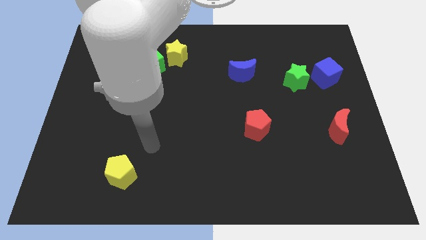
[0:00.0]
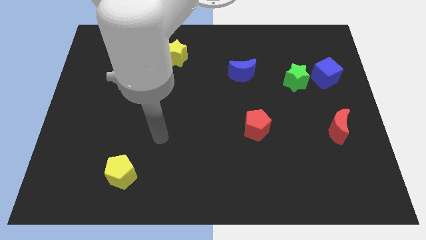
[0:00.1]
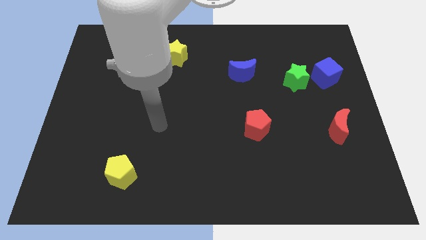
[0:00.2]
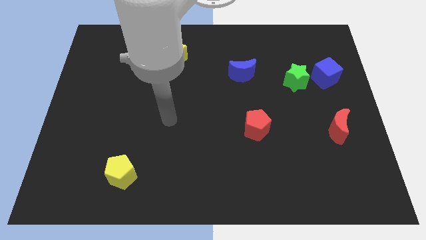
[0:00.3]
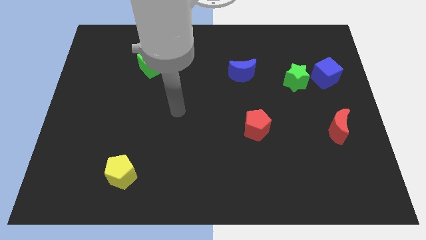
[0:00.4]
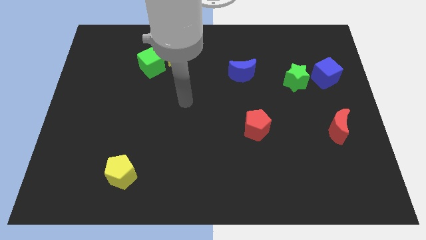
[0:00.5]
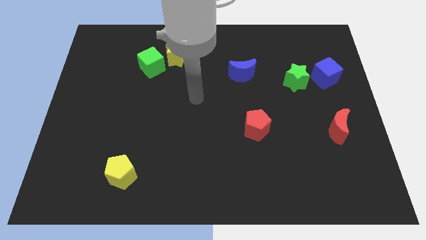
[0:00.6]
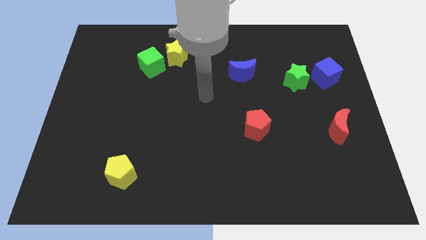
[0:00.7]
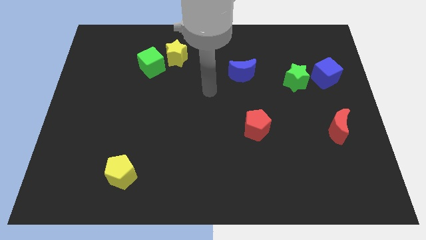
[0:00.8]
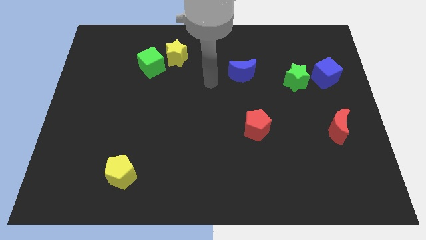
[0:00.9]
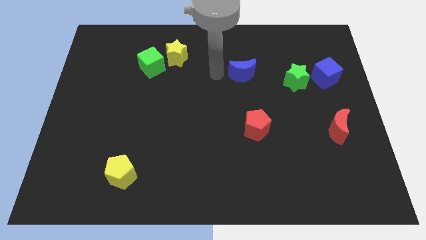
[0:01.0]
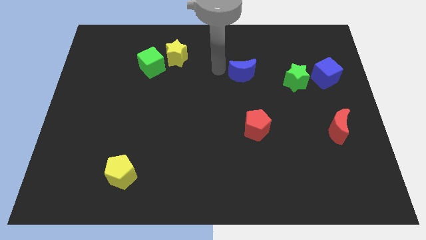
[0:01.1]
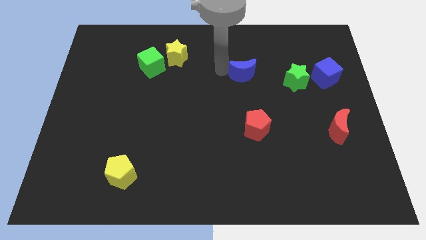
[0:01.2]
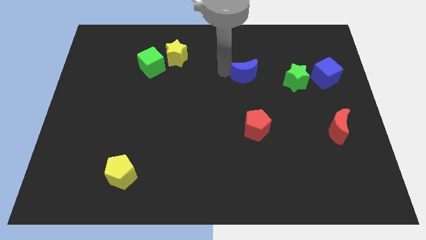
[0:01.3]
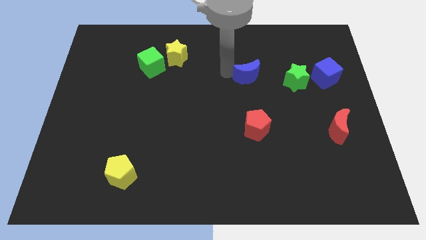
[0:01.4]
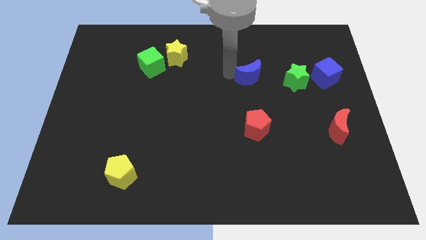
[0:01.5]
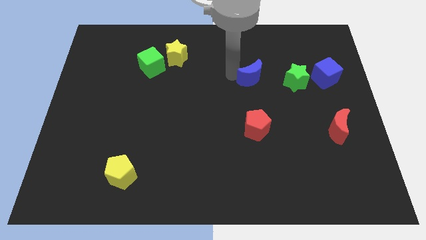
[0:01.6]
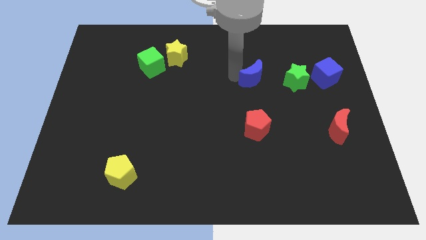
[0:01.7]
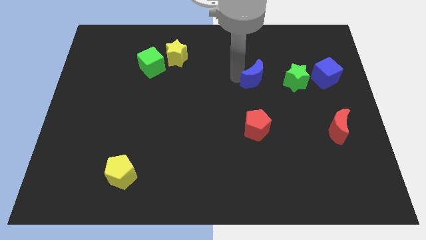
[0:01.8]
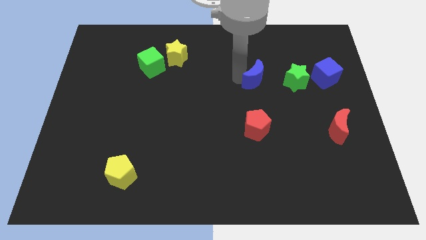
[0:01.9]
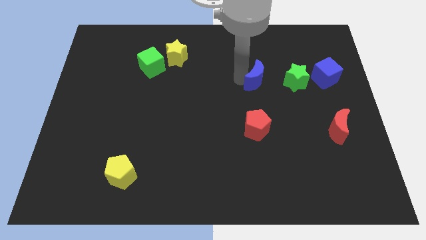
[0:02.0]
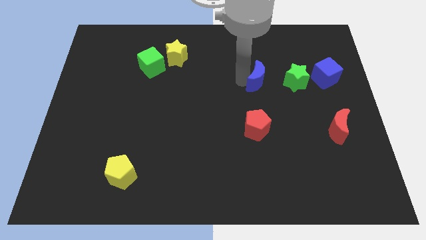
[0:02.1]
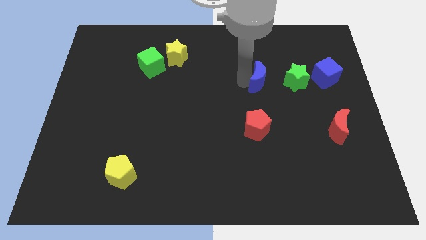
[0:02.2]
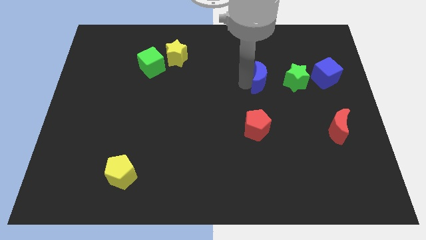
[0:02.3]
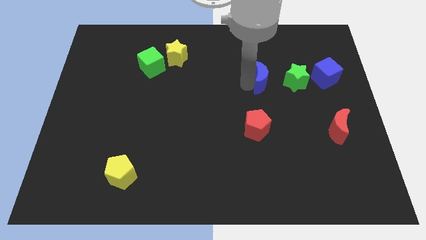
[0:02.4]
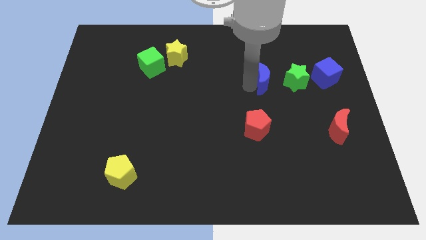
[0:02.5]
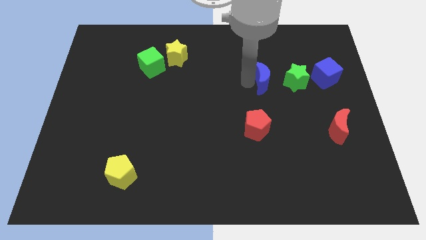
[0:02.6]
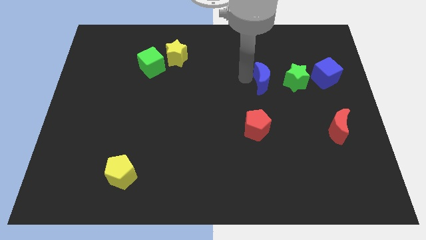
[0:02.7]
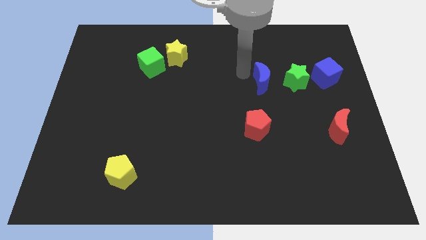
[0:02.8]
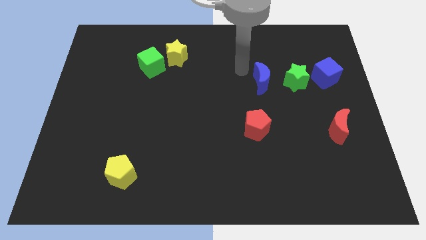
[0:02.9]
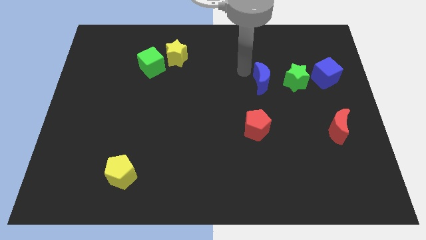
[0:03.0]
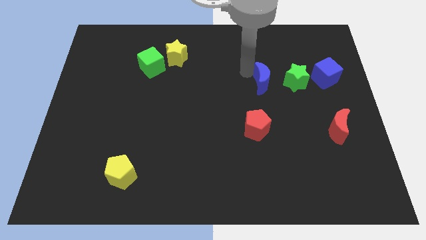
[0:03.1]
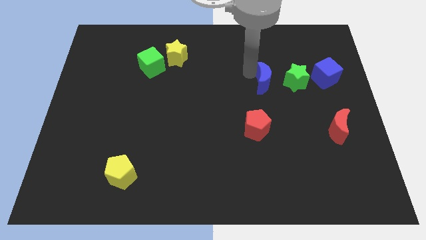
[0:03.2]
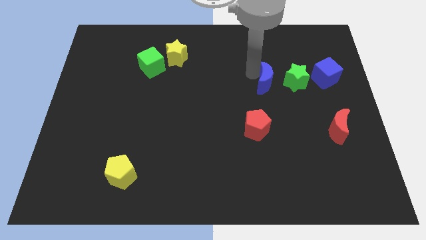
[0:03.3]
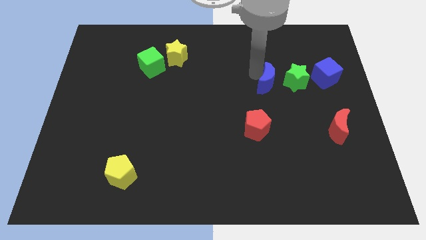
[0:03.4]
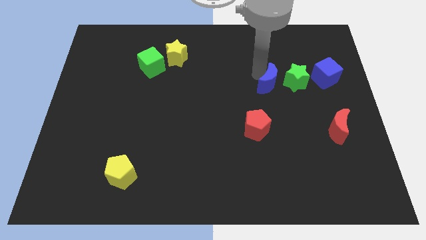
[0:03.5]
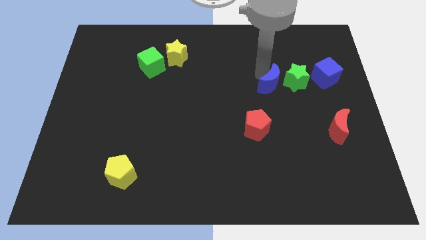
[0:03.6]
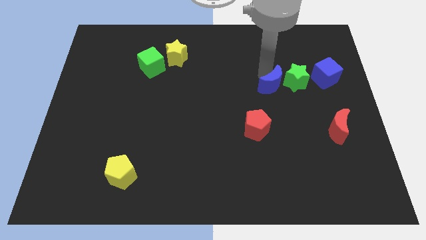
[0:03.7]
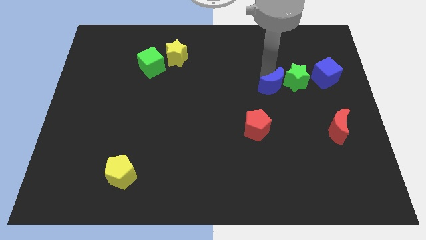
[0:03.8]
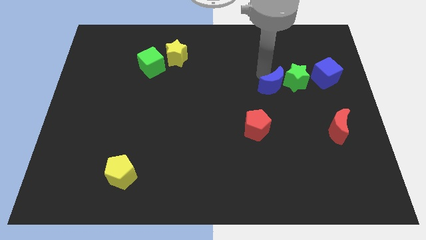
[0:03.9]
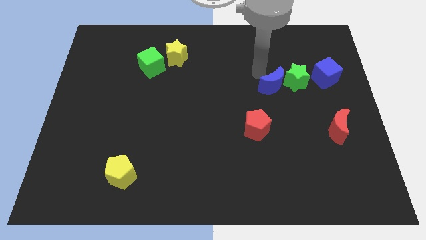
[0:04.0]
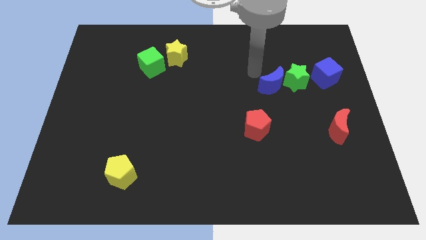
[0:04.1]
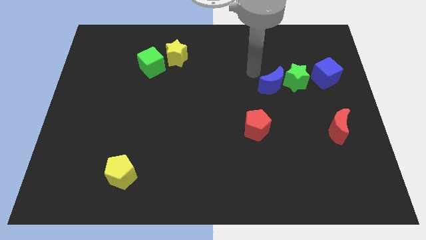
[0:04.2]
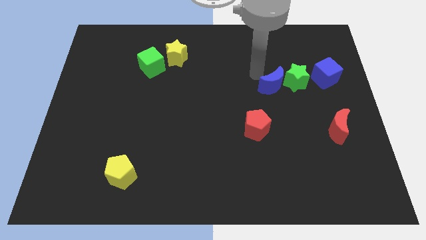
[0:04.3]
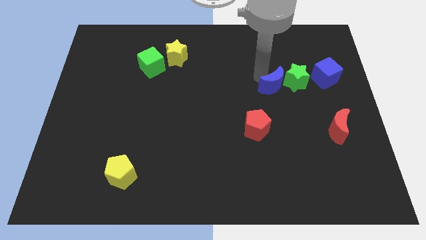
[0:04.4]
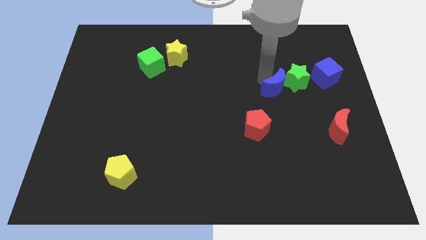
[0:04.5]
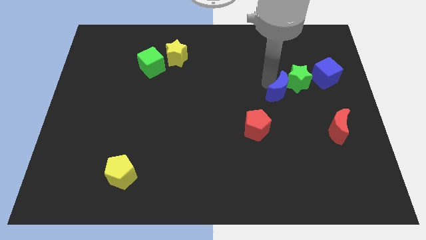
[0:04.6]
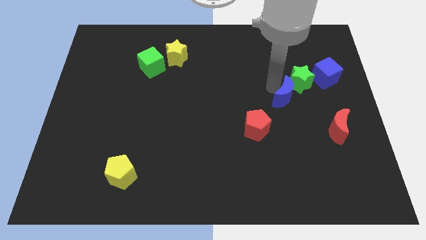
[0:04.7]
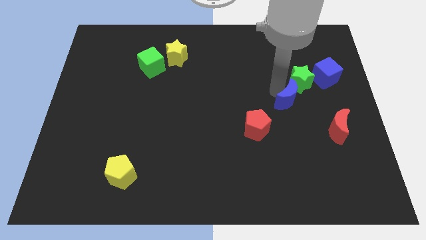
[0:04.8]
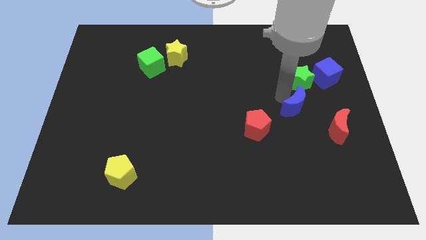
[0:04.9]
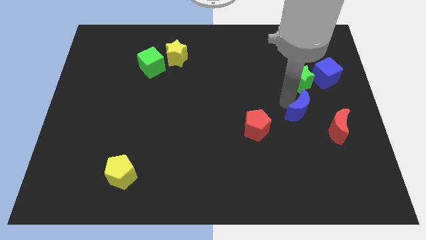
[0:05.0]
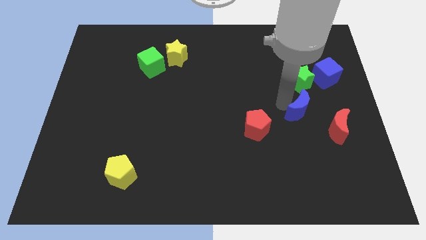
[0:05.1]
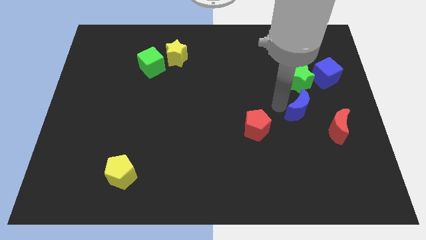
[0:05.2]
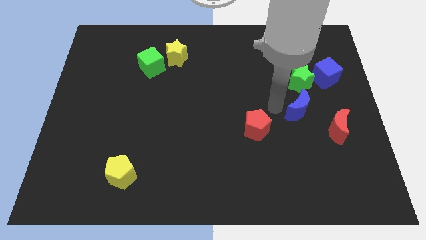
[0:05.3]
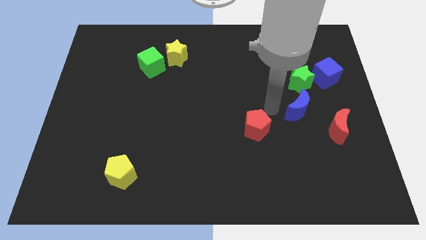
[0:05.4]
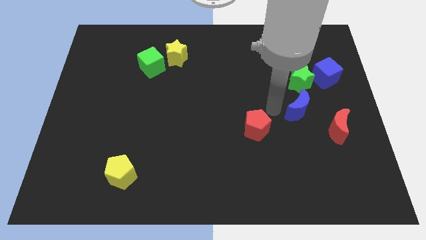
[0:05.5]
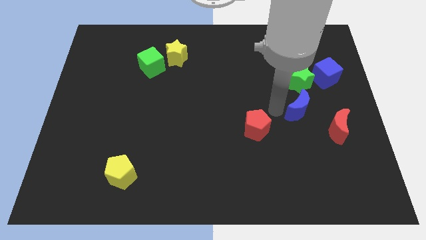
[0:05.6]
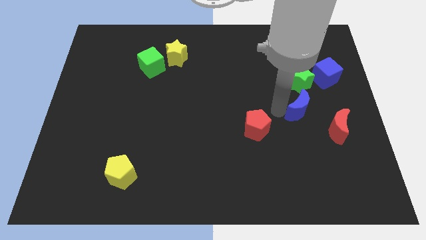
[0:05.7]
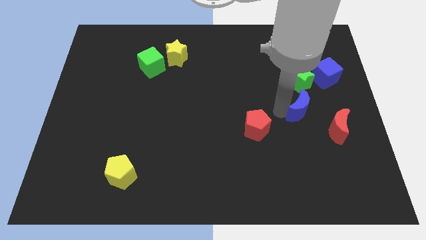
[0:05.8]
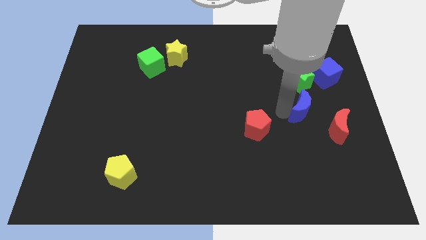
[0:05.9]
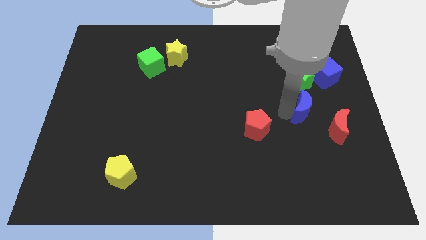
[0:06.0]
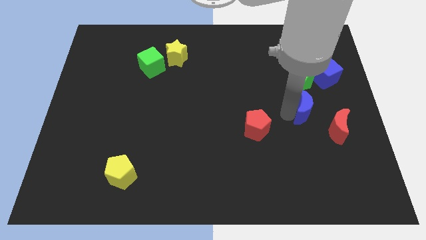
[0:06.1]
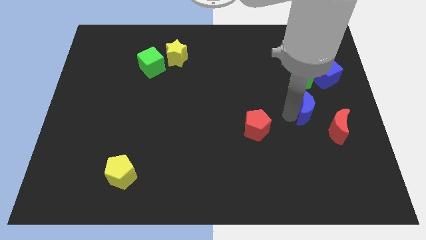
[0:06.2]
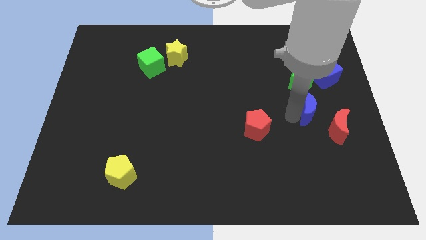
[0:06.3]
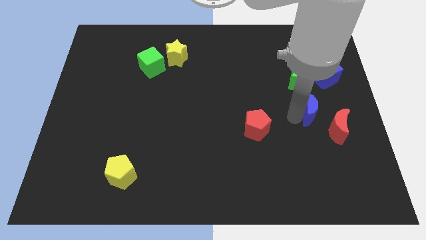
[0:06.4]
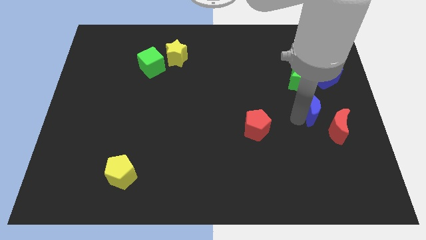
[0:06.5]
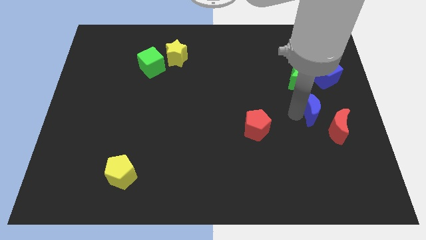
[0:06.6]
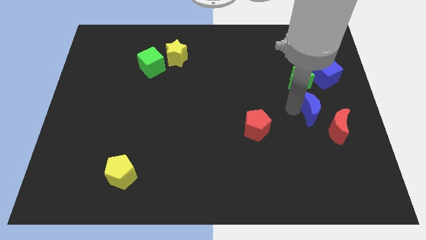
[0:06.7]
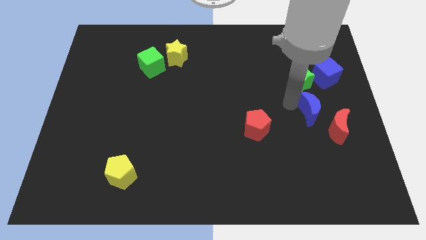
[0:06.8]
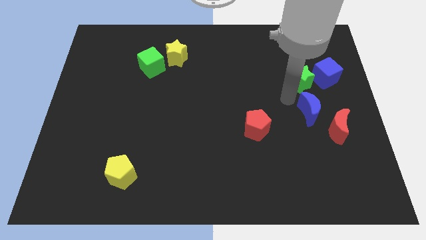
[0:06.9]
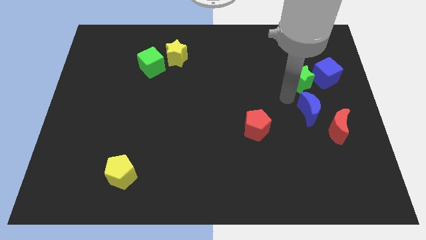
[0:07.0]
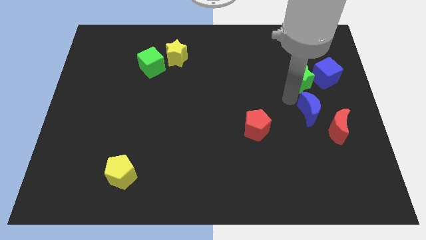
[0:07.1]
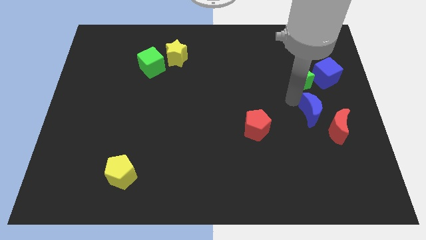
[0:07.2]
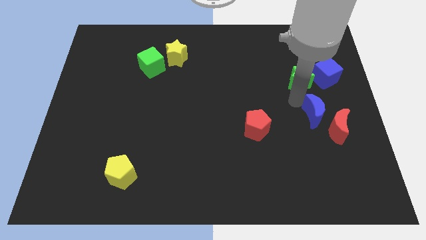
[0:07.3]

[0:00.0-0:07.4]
put the blue moon to the red moon
